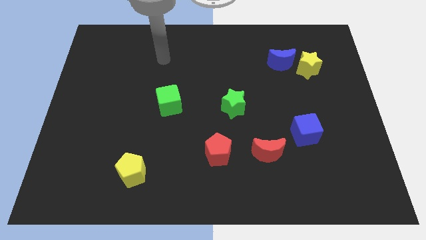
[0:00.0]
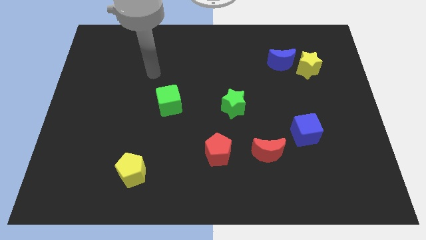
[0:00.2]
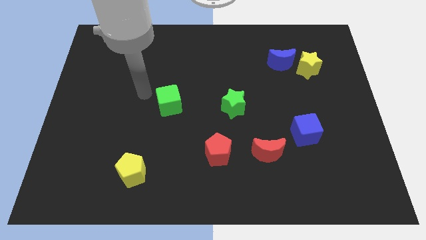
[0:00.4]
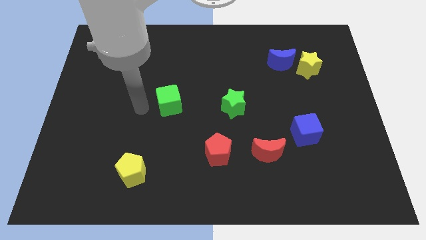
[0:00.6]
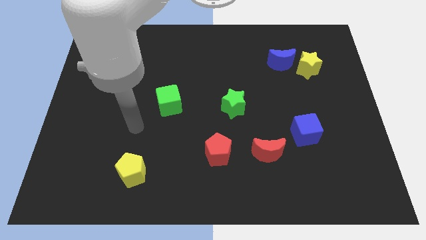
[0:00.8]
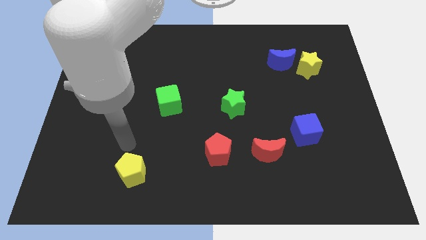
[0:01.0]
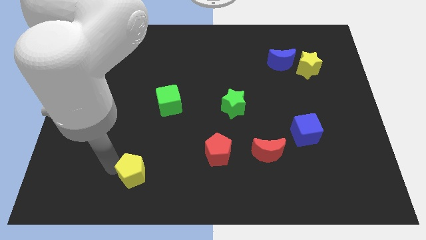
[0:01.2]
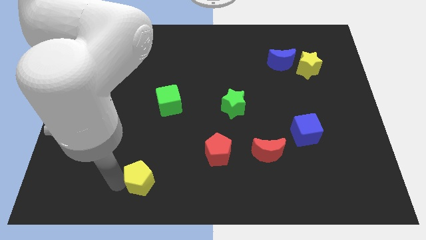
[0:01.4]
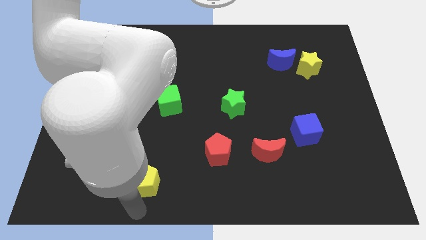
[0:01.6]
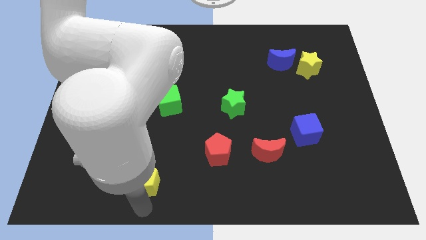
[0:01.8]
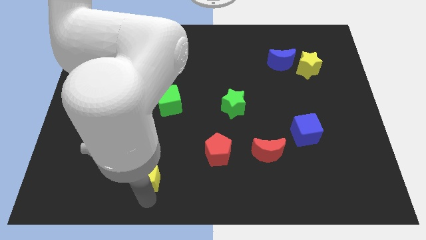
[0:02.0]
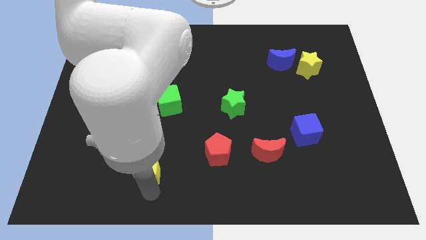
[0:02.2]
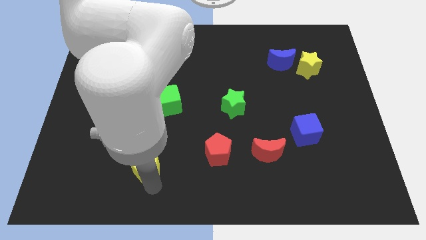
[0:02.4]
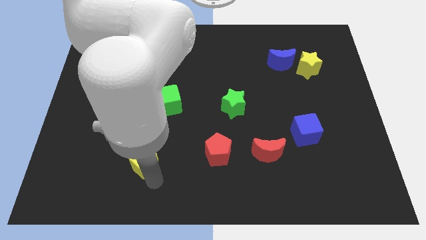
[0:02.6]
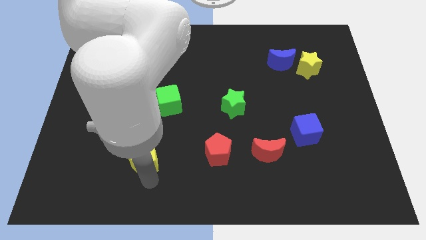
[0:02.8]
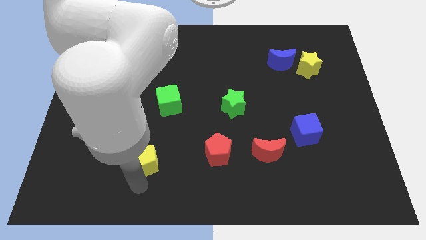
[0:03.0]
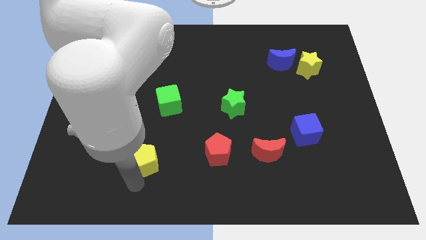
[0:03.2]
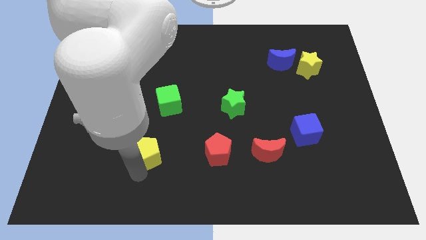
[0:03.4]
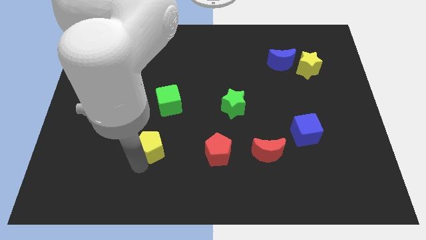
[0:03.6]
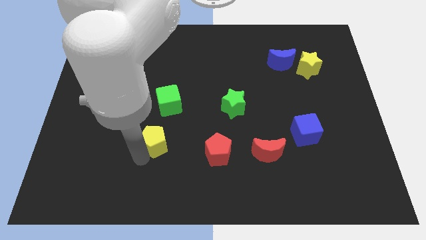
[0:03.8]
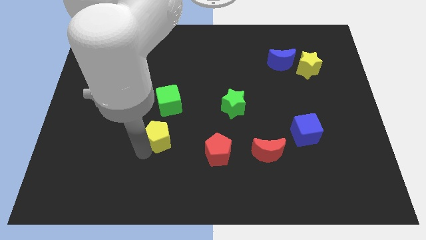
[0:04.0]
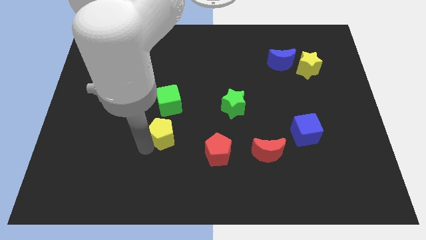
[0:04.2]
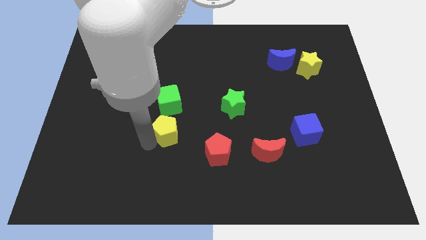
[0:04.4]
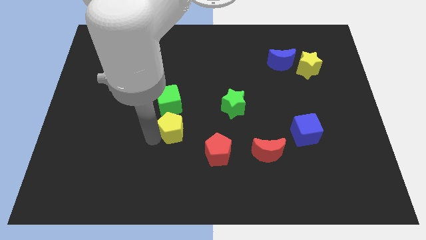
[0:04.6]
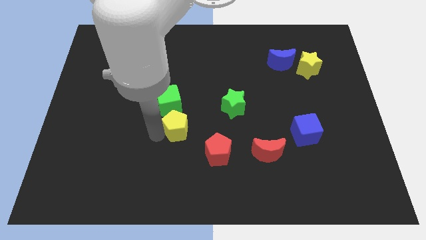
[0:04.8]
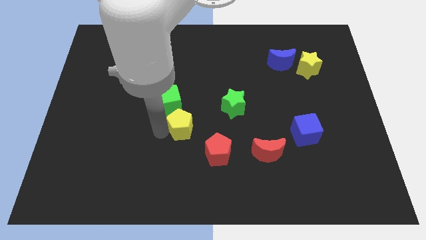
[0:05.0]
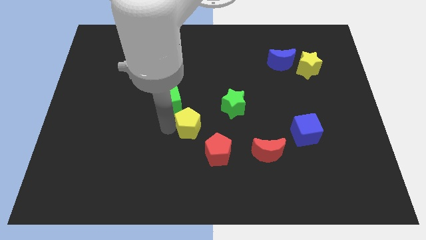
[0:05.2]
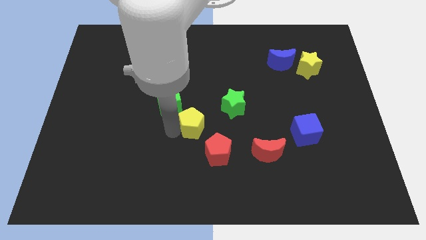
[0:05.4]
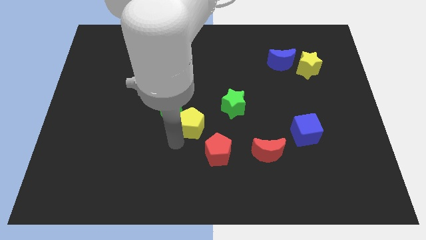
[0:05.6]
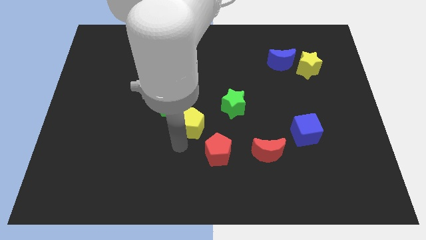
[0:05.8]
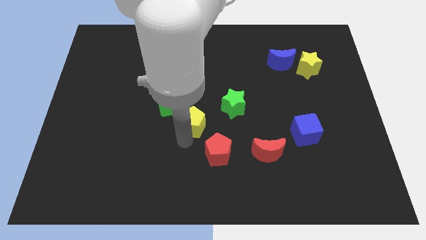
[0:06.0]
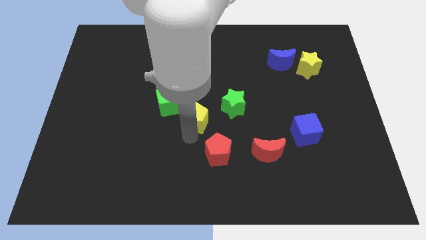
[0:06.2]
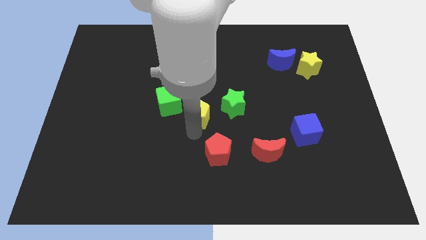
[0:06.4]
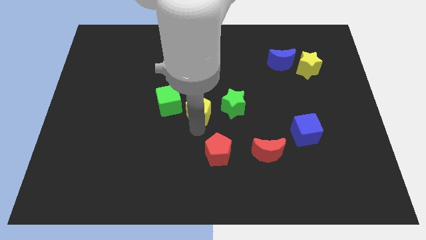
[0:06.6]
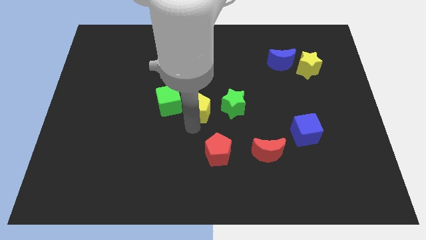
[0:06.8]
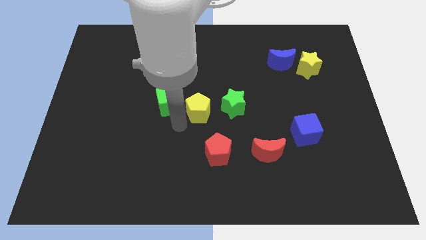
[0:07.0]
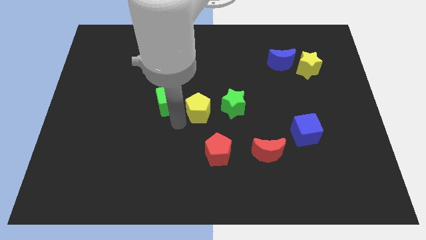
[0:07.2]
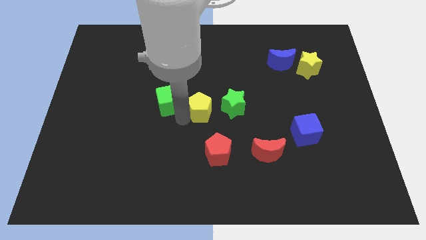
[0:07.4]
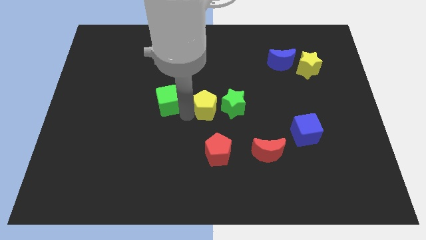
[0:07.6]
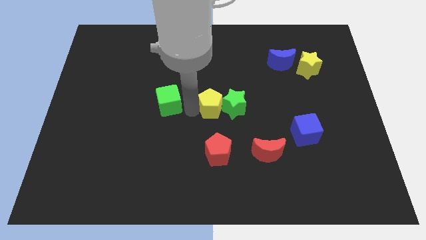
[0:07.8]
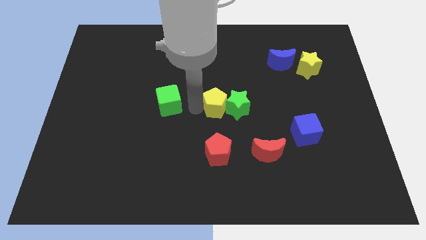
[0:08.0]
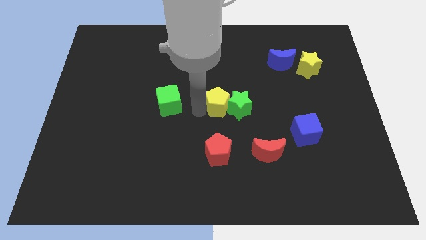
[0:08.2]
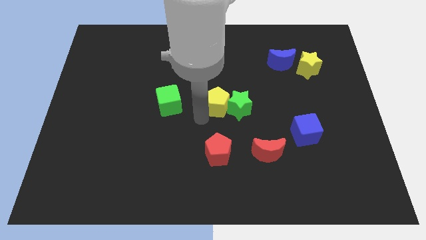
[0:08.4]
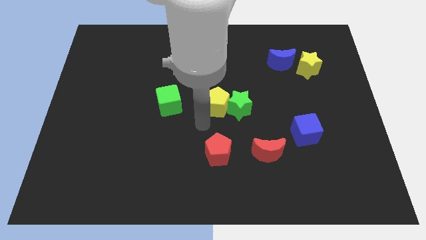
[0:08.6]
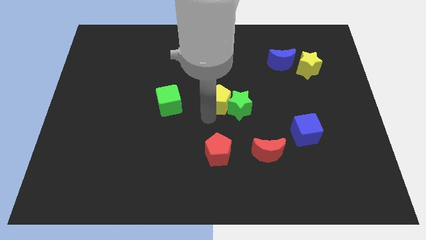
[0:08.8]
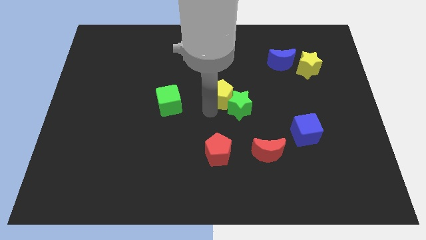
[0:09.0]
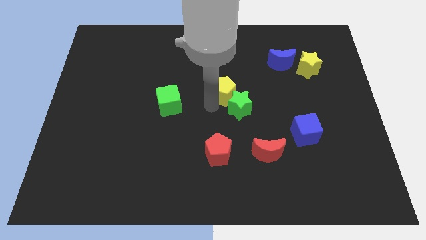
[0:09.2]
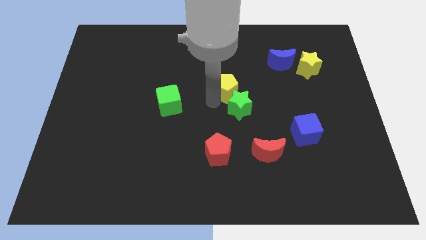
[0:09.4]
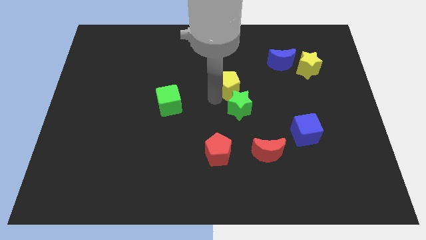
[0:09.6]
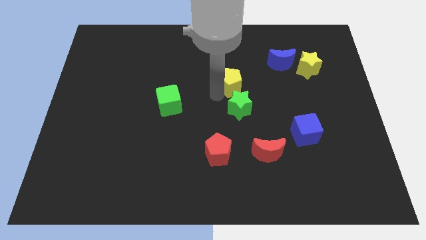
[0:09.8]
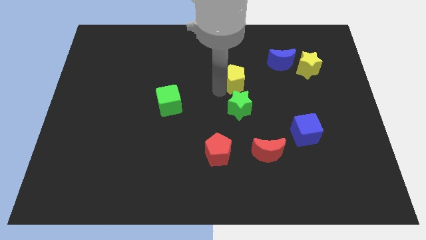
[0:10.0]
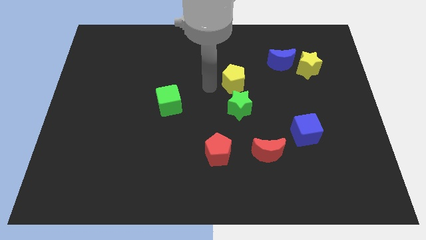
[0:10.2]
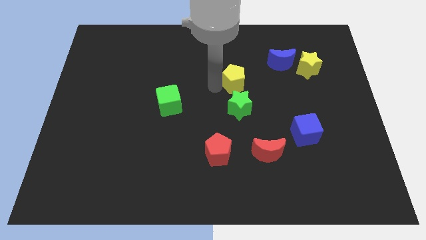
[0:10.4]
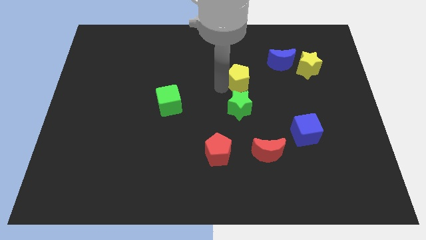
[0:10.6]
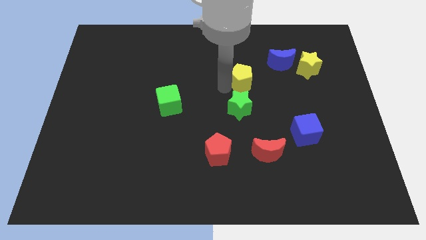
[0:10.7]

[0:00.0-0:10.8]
put the yellow pentagon to the bottom left of the blue moon

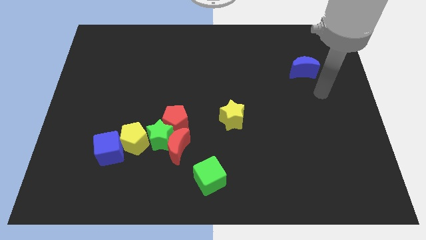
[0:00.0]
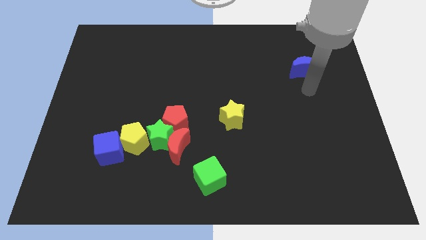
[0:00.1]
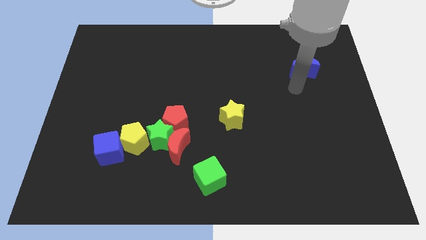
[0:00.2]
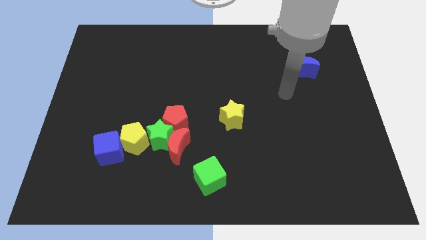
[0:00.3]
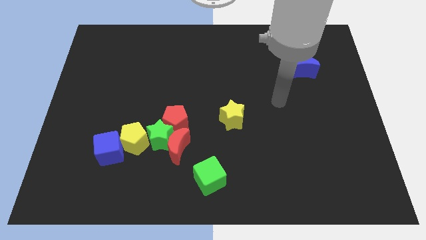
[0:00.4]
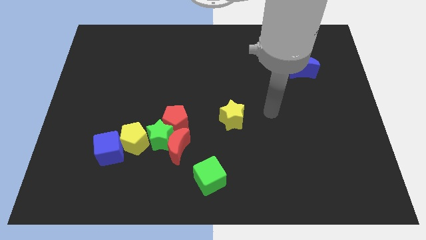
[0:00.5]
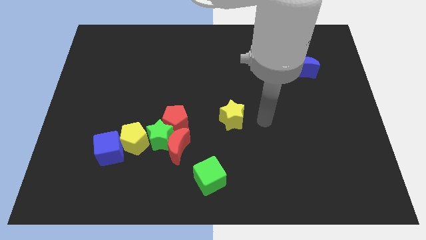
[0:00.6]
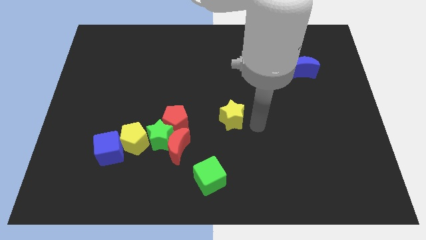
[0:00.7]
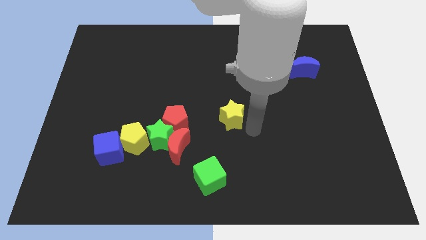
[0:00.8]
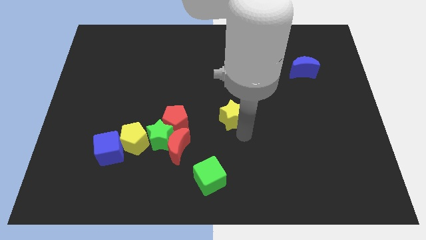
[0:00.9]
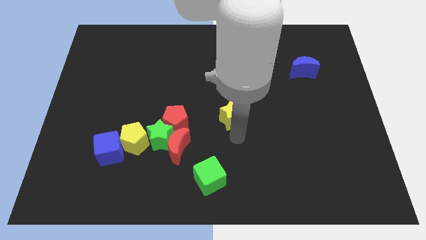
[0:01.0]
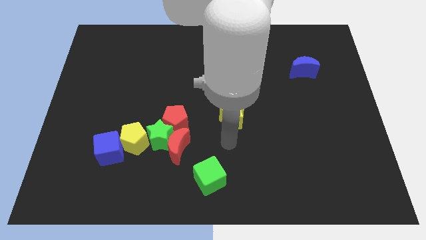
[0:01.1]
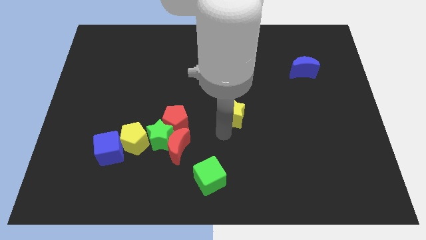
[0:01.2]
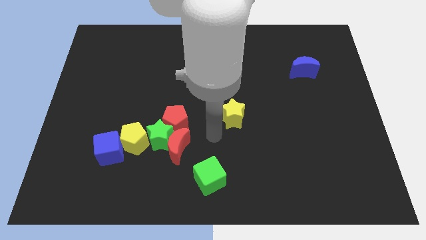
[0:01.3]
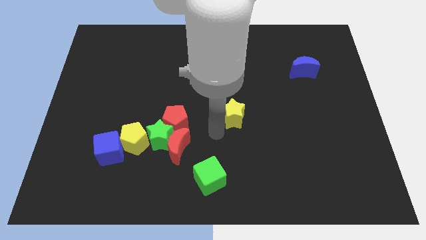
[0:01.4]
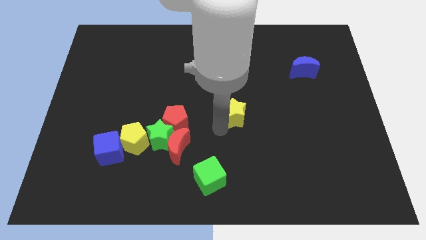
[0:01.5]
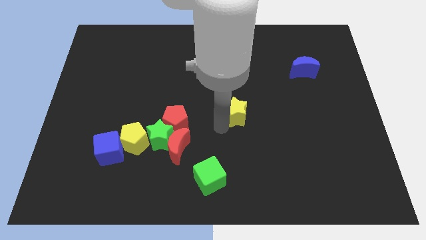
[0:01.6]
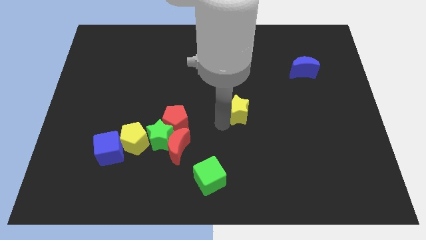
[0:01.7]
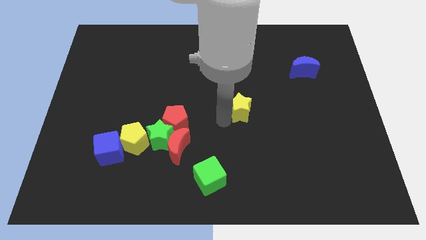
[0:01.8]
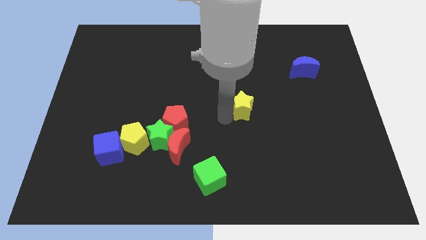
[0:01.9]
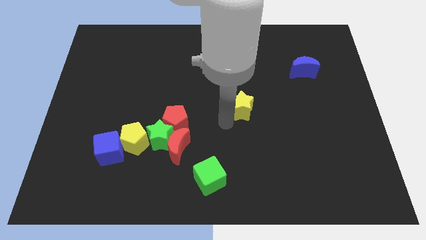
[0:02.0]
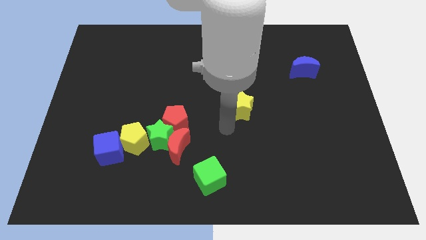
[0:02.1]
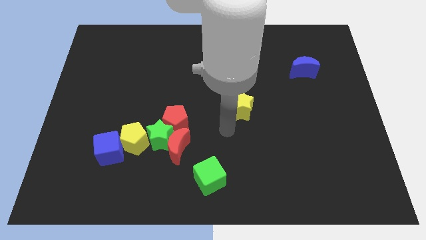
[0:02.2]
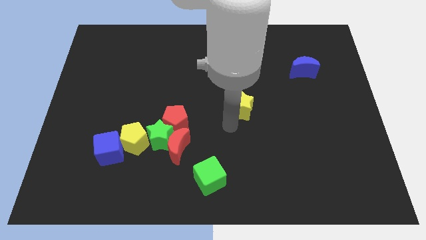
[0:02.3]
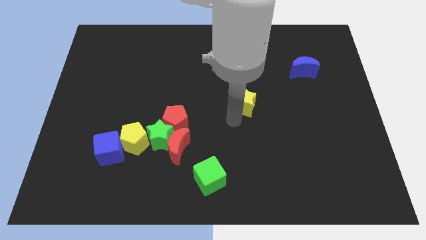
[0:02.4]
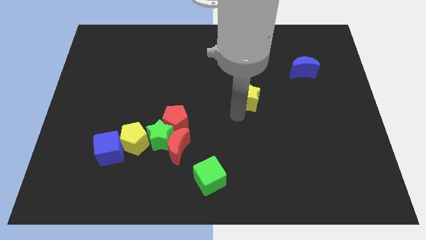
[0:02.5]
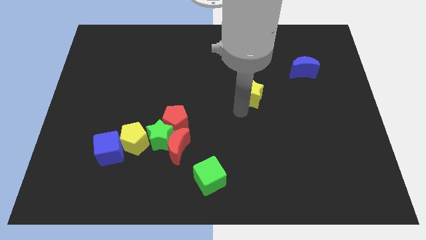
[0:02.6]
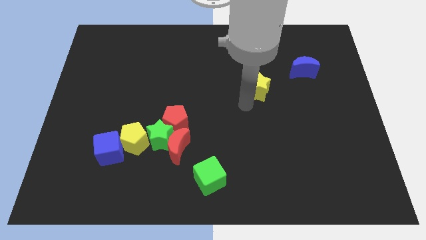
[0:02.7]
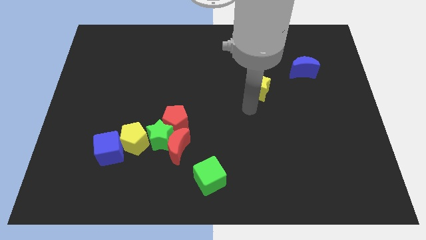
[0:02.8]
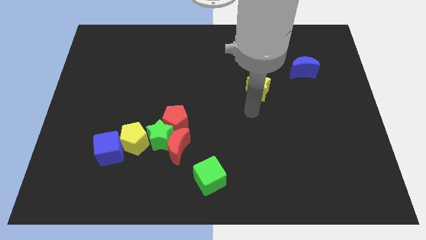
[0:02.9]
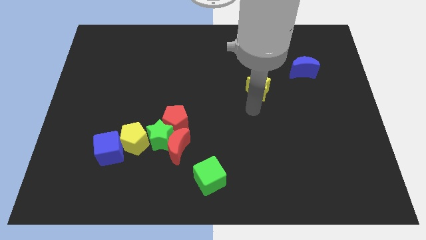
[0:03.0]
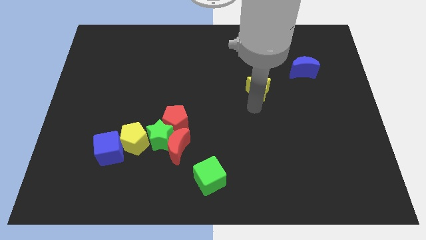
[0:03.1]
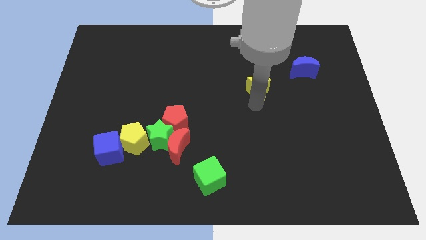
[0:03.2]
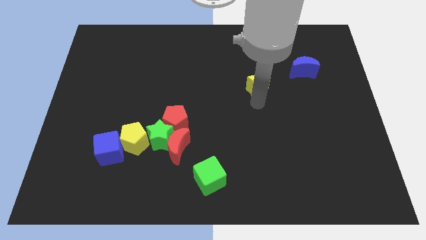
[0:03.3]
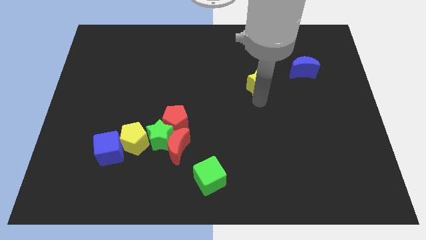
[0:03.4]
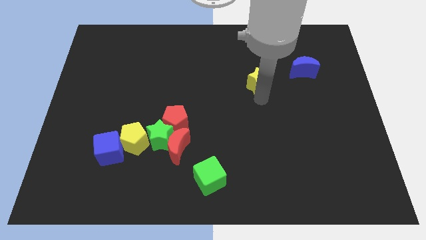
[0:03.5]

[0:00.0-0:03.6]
push the yellow star to the left of the blue moon
